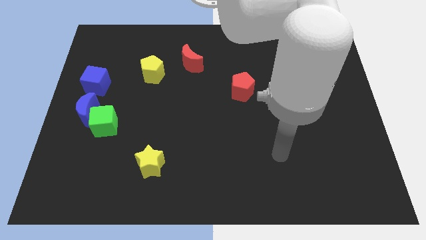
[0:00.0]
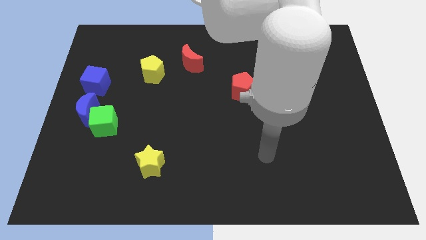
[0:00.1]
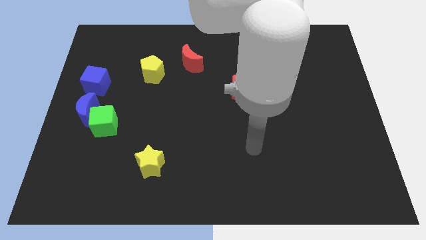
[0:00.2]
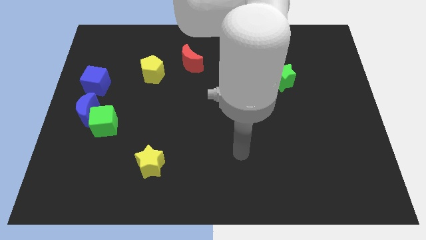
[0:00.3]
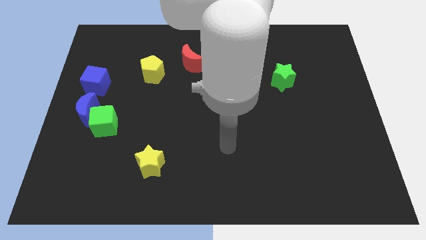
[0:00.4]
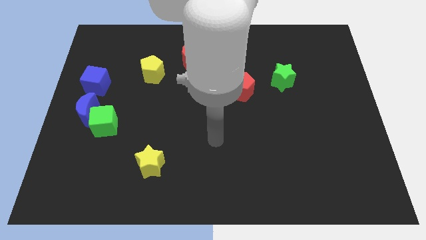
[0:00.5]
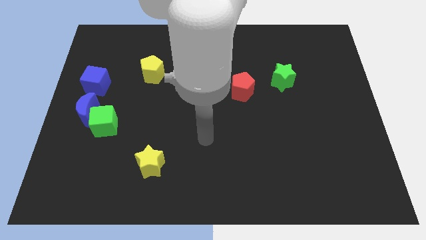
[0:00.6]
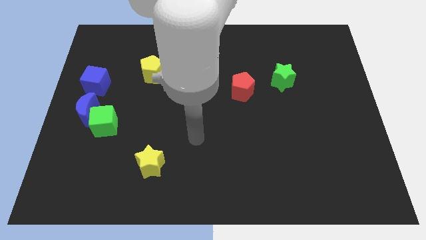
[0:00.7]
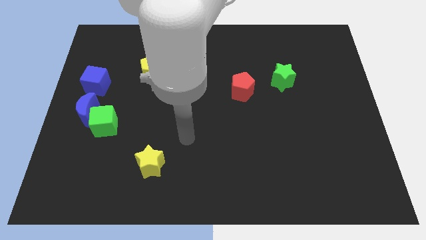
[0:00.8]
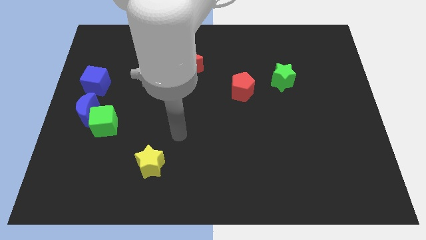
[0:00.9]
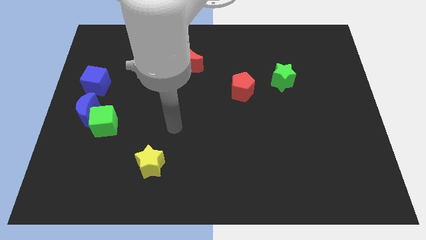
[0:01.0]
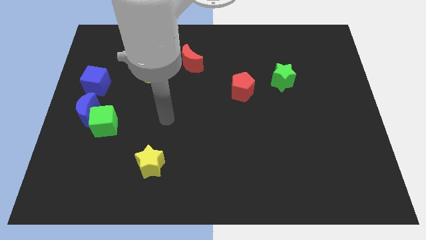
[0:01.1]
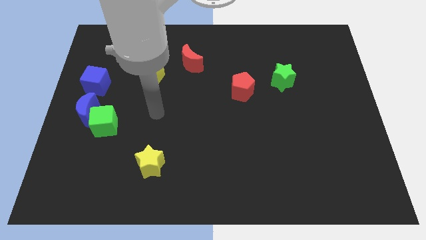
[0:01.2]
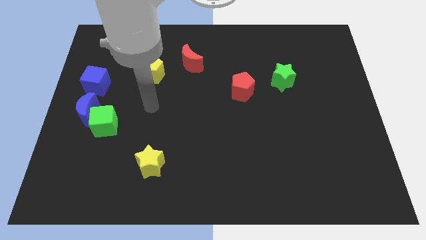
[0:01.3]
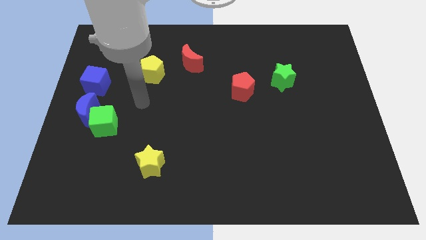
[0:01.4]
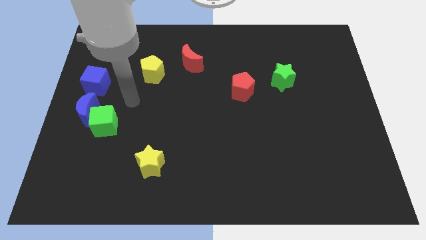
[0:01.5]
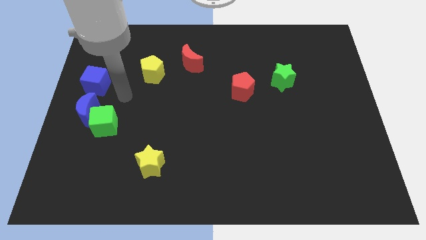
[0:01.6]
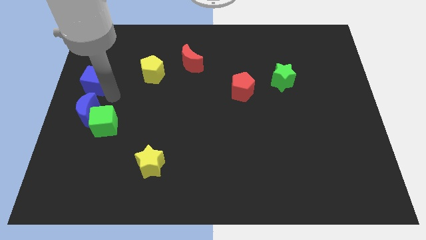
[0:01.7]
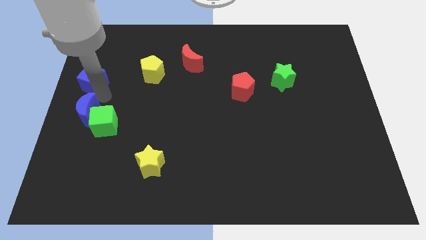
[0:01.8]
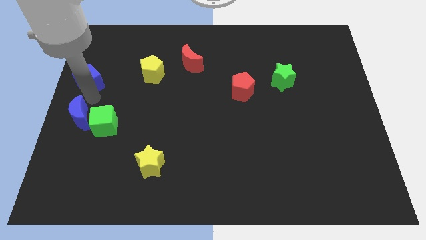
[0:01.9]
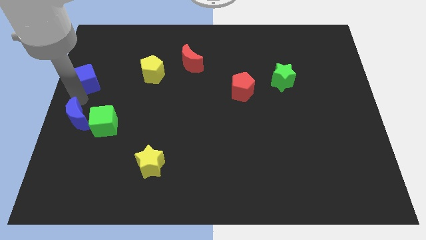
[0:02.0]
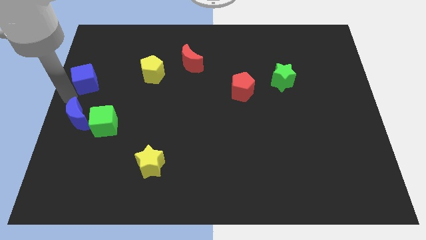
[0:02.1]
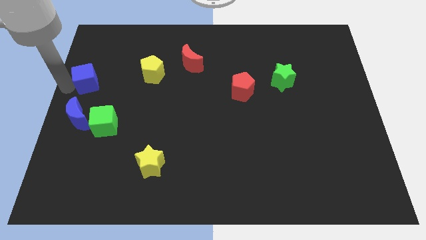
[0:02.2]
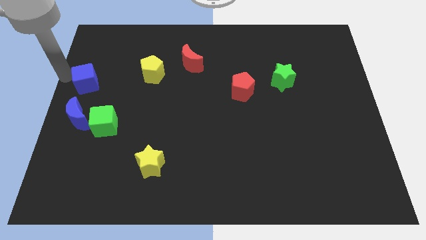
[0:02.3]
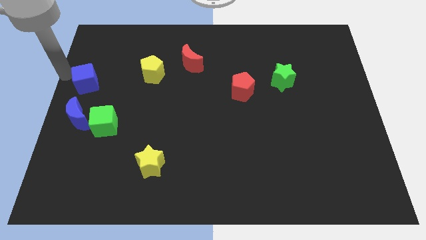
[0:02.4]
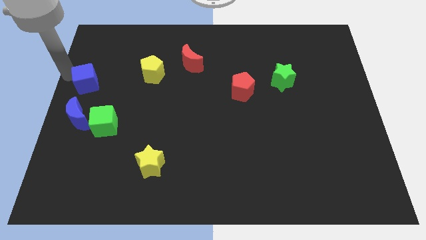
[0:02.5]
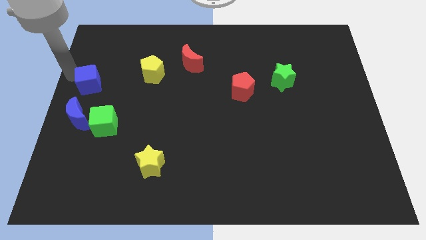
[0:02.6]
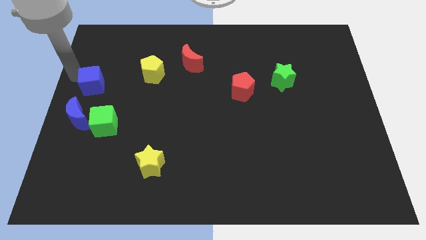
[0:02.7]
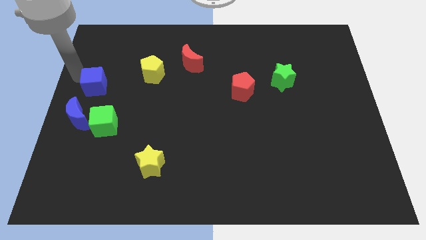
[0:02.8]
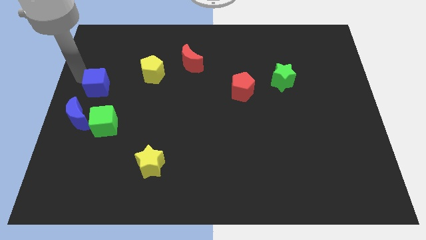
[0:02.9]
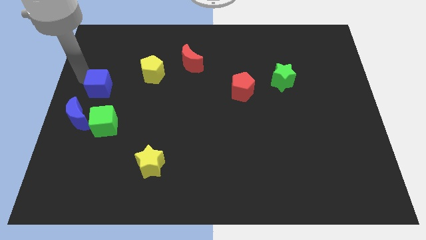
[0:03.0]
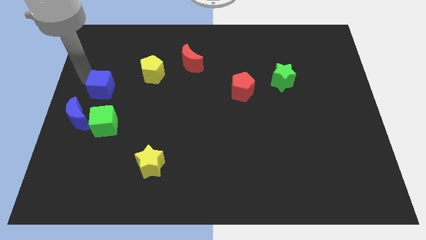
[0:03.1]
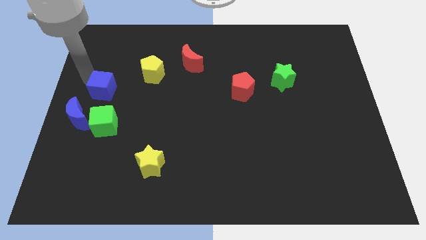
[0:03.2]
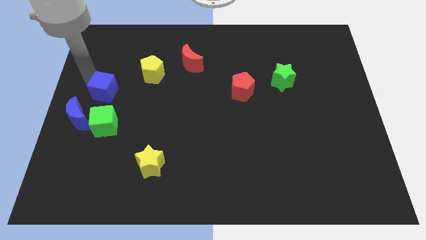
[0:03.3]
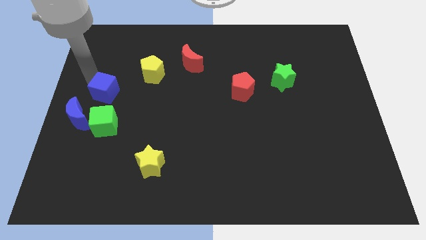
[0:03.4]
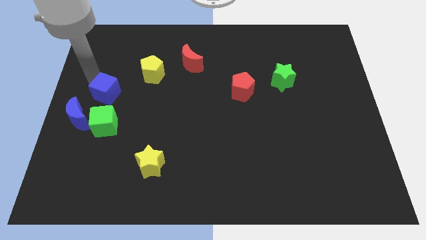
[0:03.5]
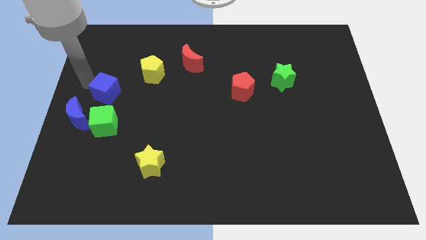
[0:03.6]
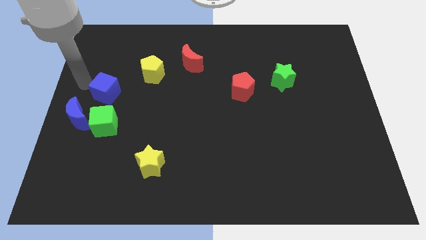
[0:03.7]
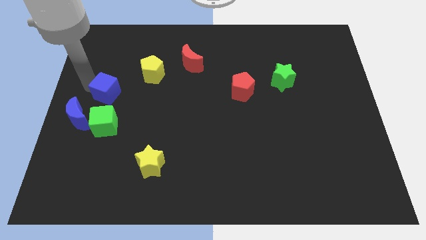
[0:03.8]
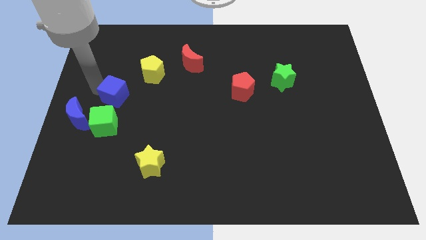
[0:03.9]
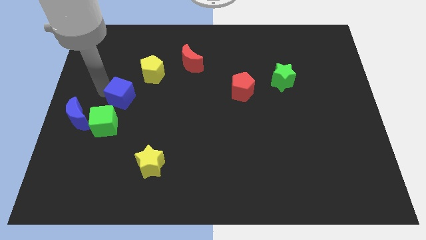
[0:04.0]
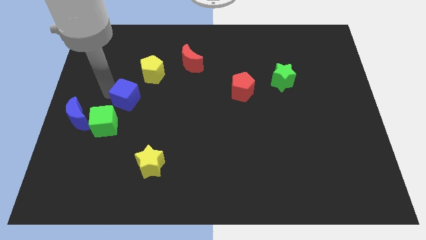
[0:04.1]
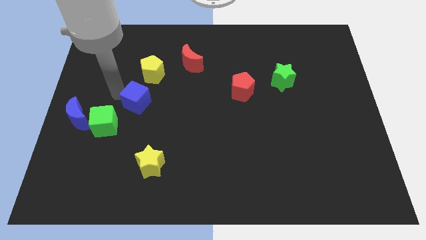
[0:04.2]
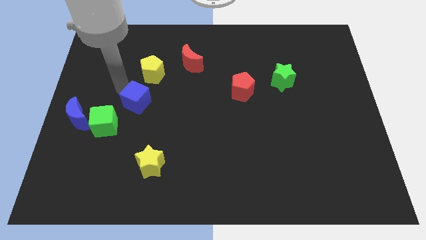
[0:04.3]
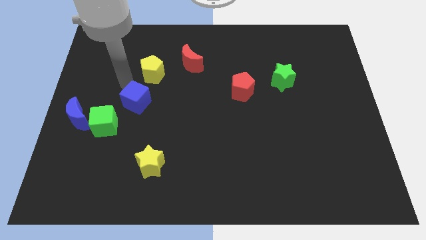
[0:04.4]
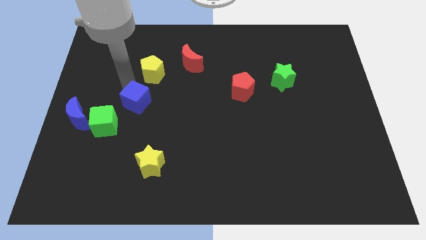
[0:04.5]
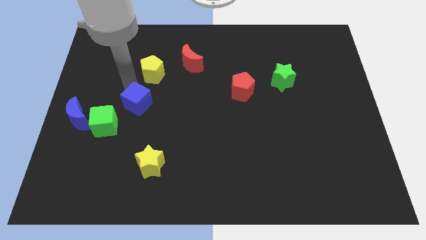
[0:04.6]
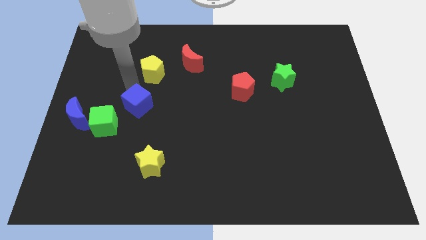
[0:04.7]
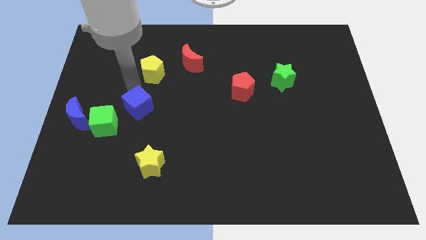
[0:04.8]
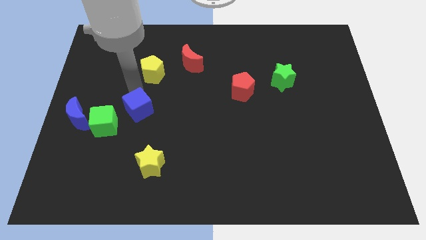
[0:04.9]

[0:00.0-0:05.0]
push the blue cube right of the green cube

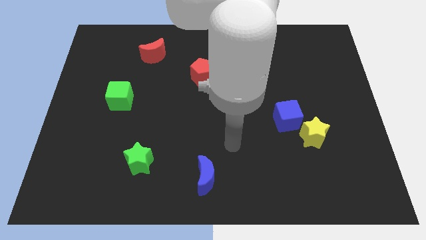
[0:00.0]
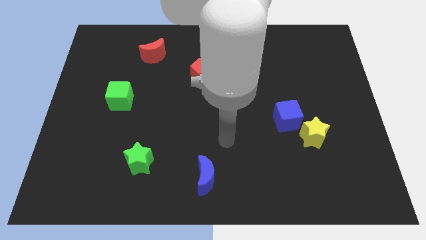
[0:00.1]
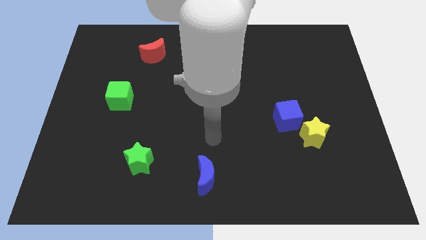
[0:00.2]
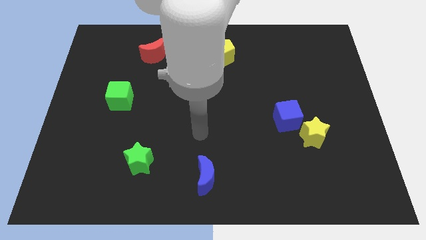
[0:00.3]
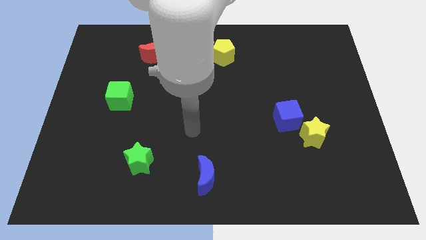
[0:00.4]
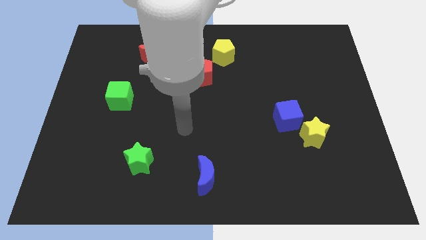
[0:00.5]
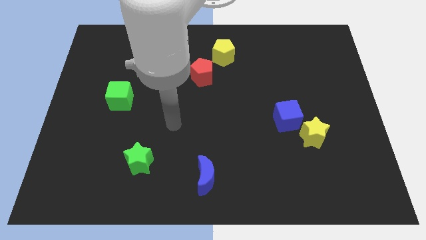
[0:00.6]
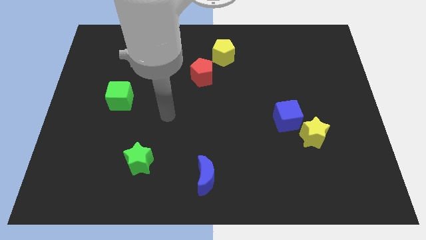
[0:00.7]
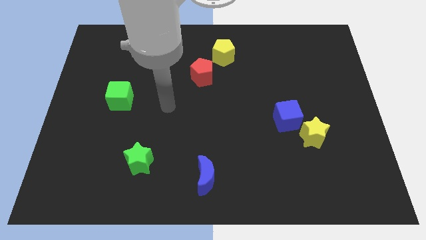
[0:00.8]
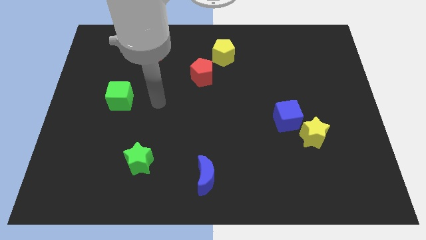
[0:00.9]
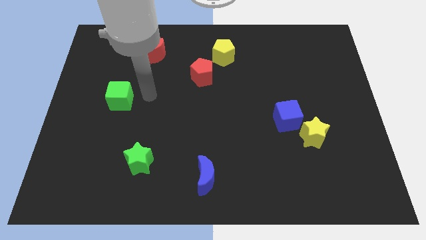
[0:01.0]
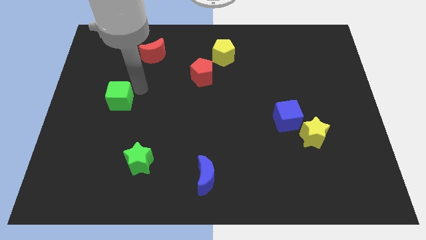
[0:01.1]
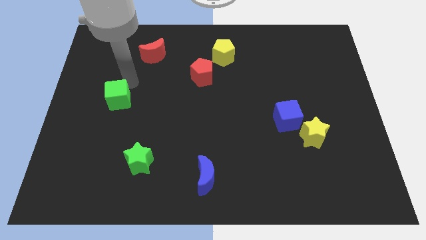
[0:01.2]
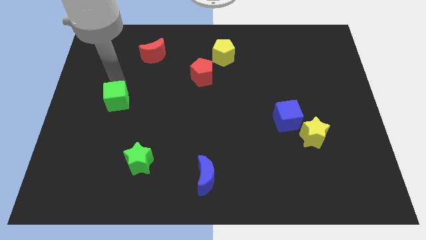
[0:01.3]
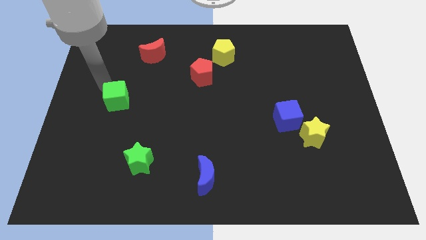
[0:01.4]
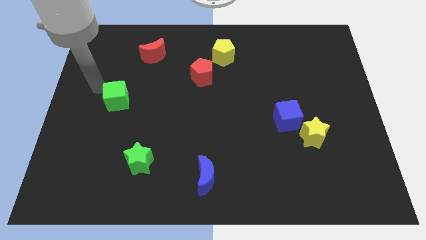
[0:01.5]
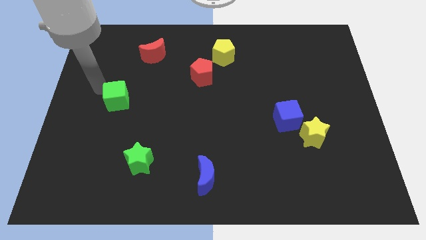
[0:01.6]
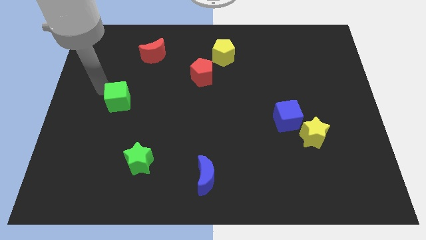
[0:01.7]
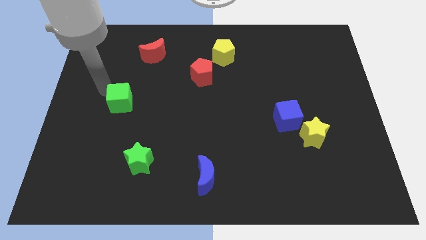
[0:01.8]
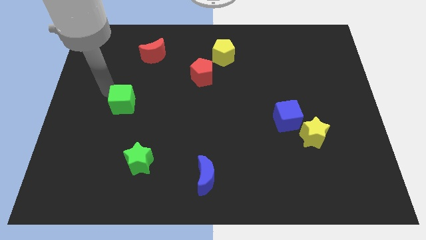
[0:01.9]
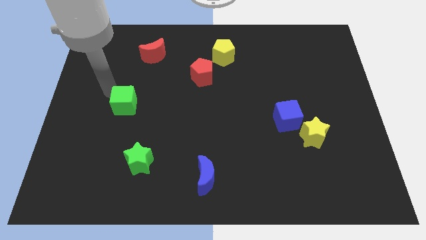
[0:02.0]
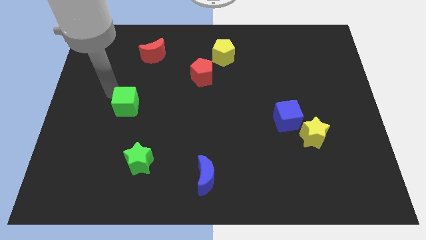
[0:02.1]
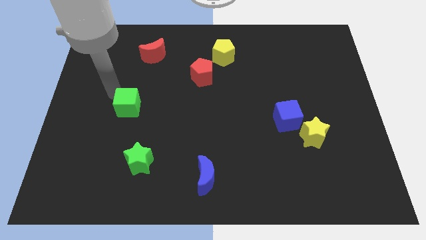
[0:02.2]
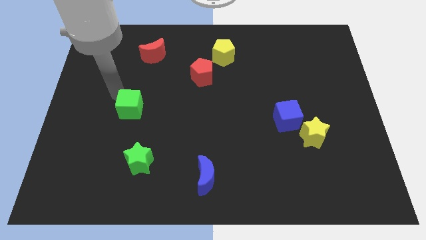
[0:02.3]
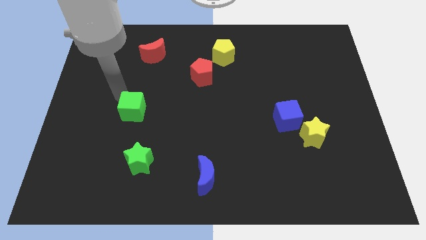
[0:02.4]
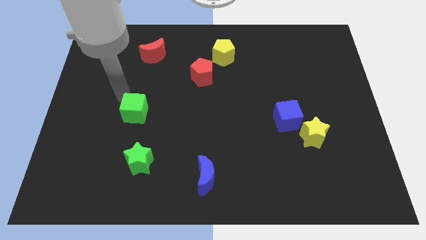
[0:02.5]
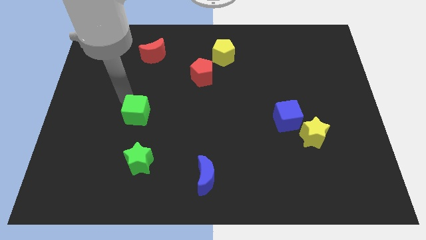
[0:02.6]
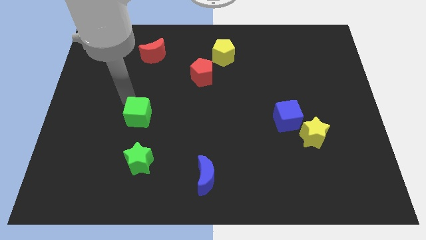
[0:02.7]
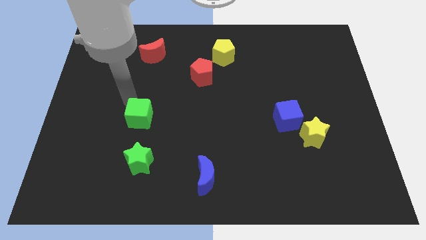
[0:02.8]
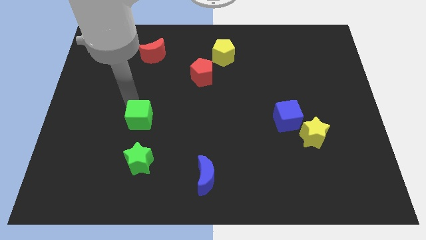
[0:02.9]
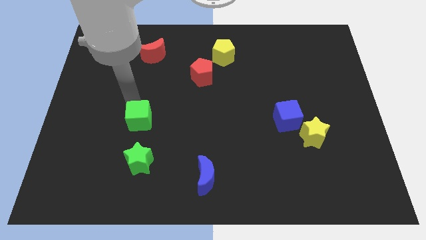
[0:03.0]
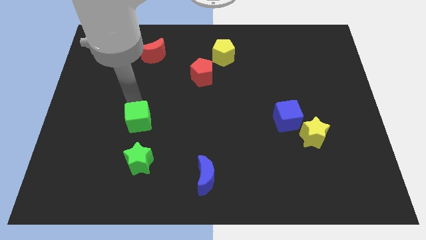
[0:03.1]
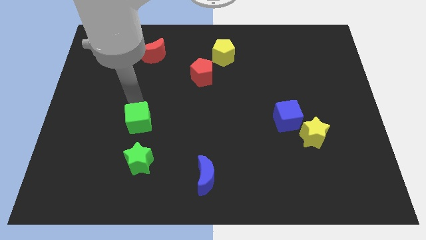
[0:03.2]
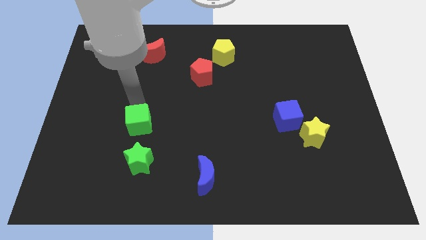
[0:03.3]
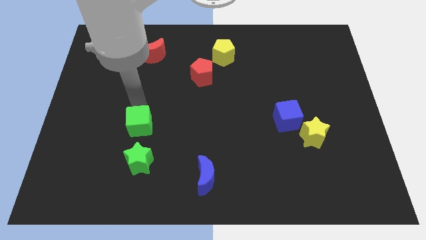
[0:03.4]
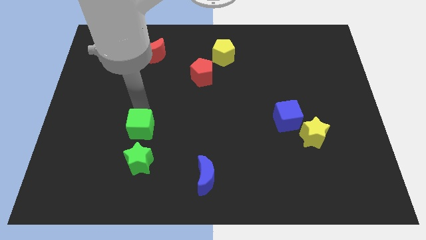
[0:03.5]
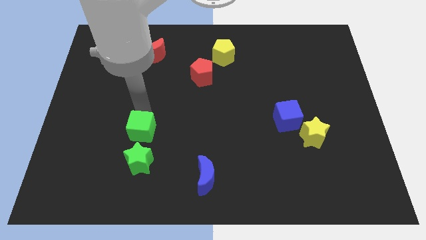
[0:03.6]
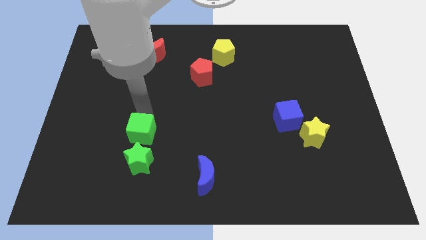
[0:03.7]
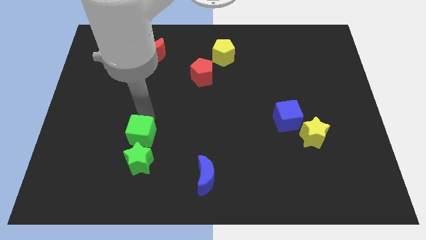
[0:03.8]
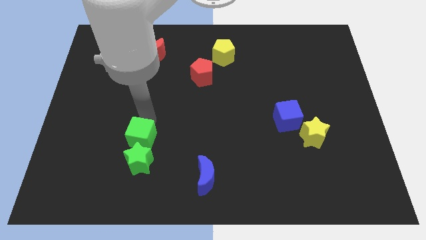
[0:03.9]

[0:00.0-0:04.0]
push the green cube to the top right of the green star
